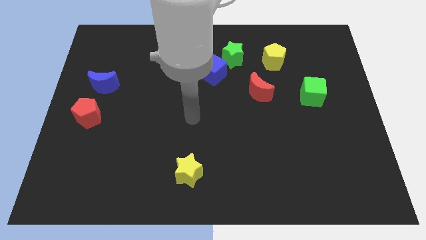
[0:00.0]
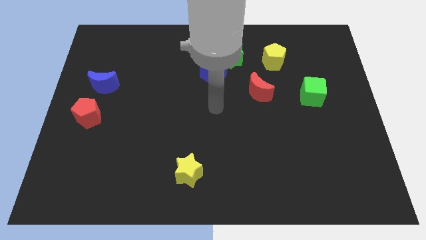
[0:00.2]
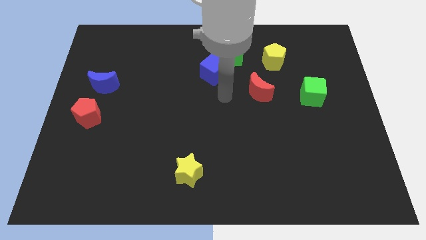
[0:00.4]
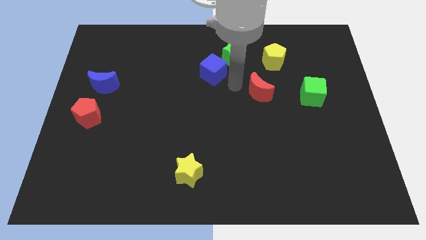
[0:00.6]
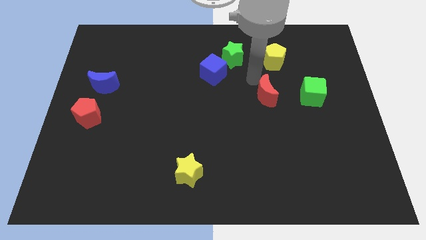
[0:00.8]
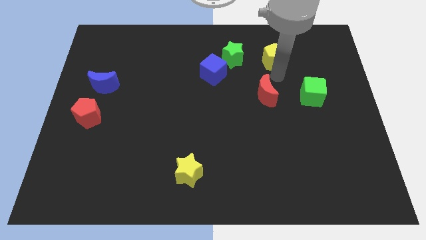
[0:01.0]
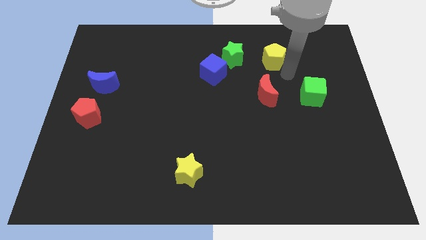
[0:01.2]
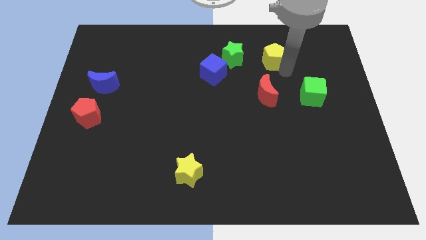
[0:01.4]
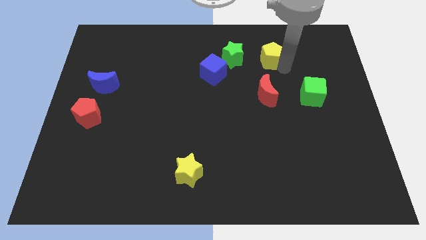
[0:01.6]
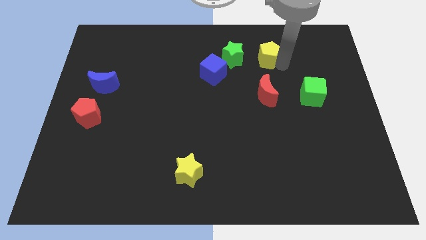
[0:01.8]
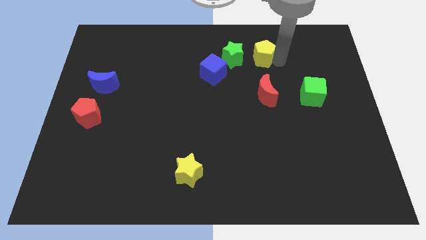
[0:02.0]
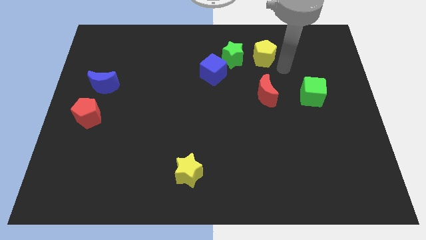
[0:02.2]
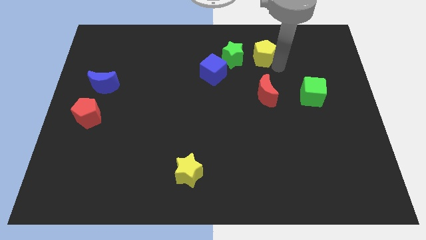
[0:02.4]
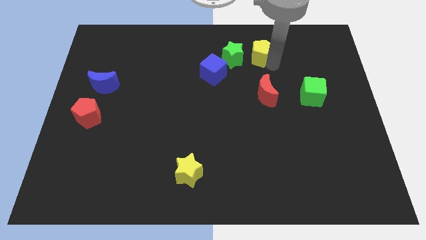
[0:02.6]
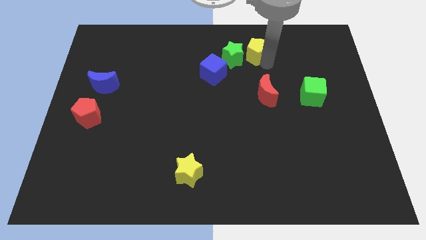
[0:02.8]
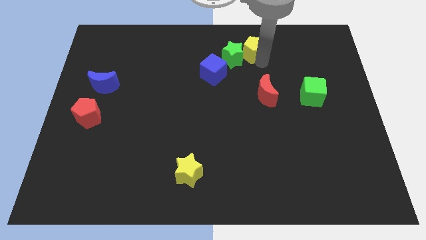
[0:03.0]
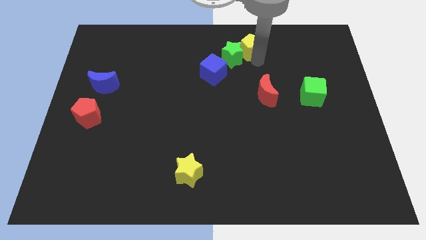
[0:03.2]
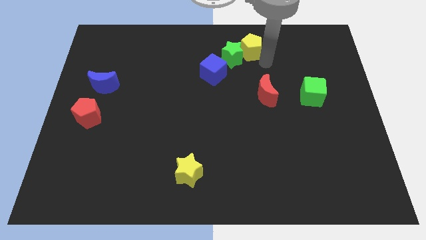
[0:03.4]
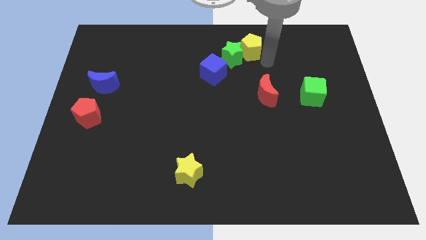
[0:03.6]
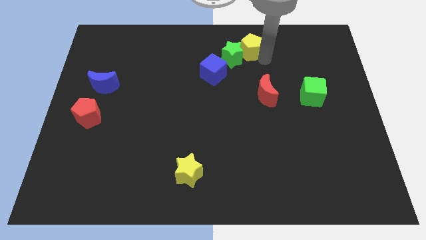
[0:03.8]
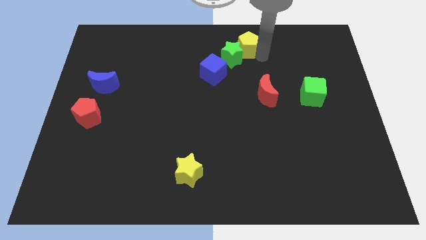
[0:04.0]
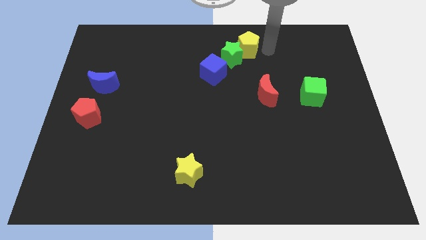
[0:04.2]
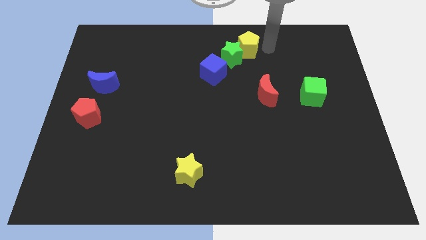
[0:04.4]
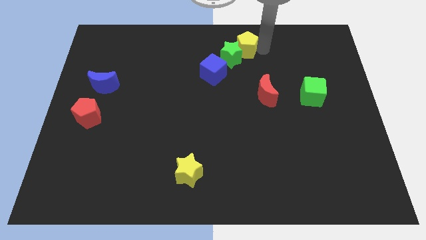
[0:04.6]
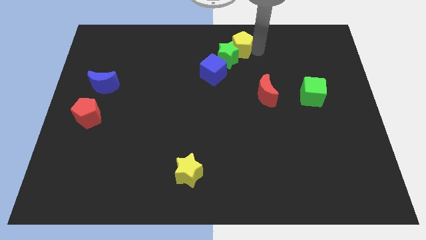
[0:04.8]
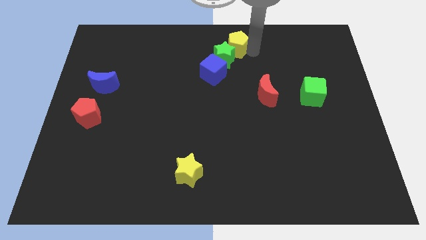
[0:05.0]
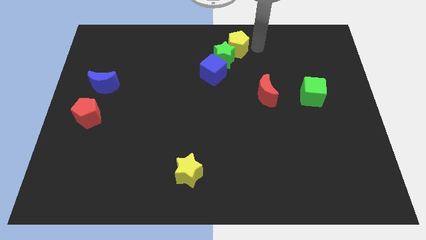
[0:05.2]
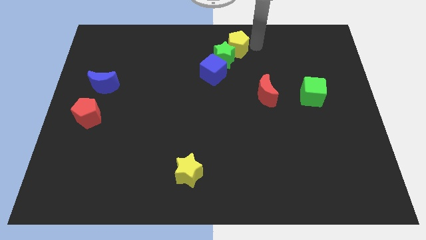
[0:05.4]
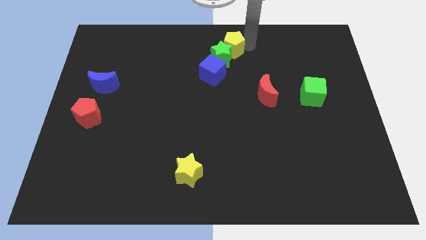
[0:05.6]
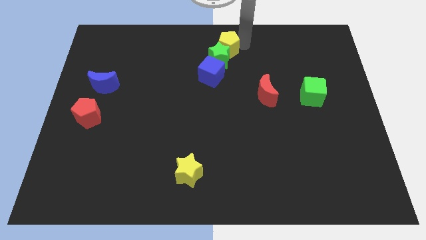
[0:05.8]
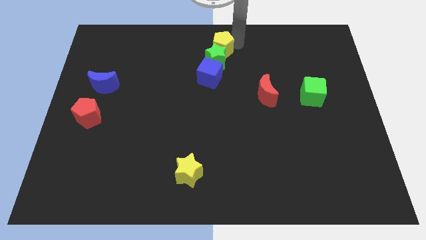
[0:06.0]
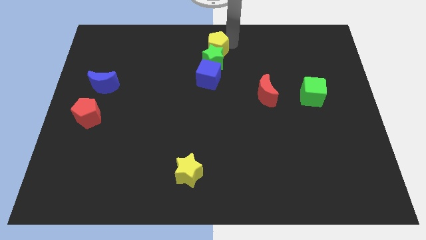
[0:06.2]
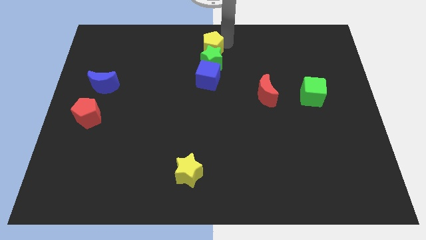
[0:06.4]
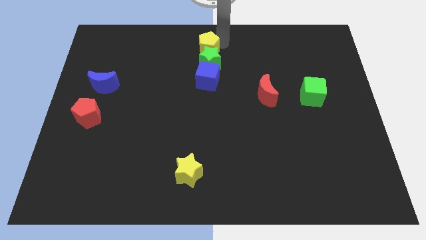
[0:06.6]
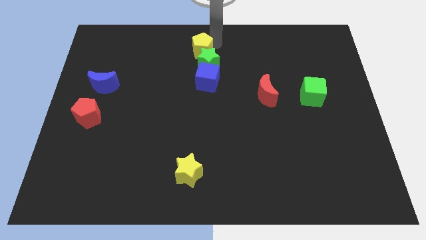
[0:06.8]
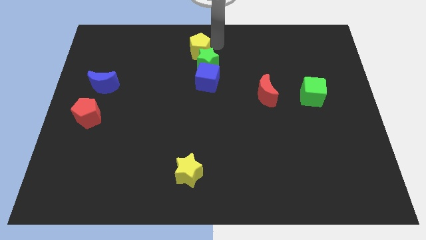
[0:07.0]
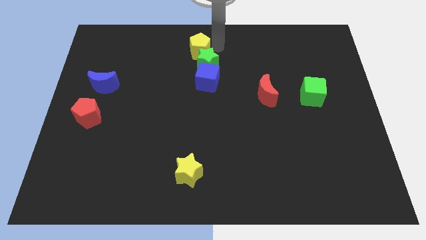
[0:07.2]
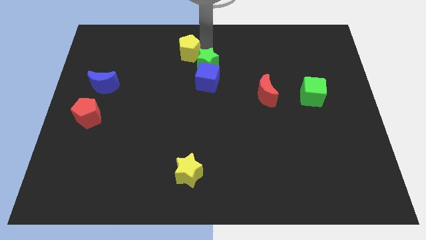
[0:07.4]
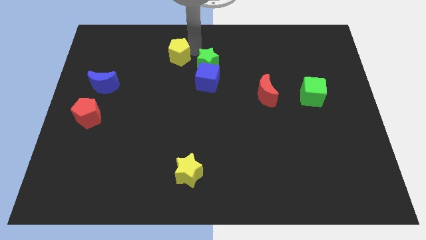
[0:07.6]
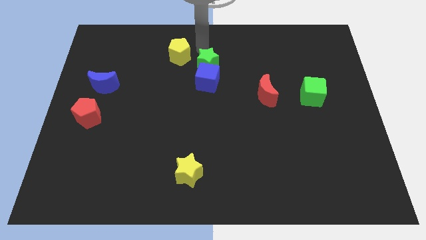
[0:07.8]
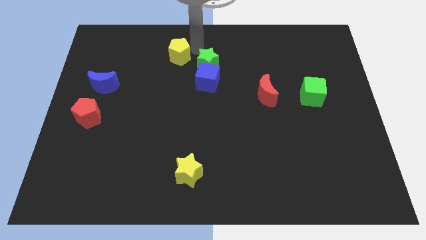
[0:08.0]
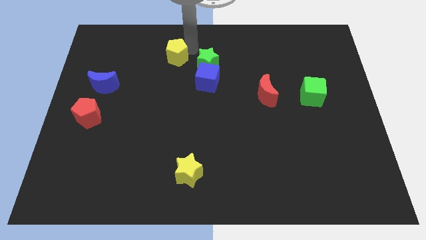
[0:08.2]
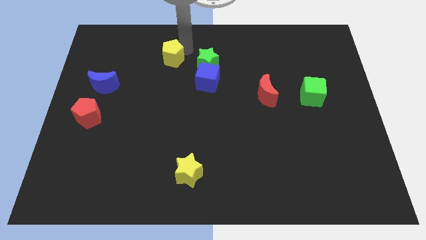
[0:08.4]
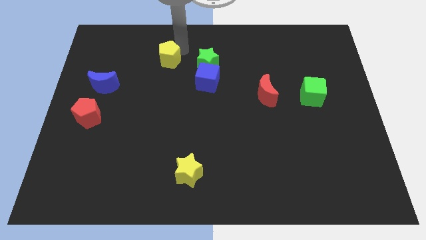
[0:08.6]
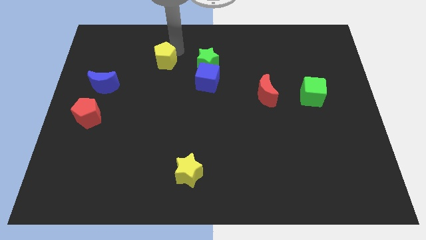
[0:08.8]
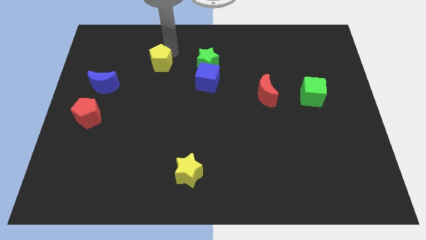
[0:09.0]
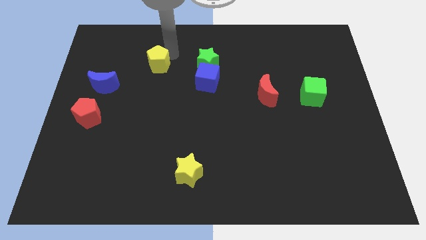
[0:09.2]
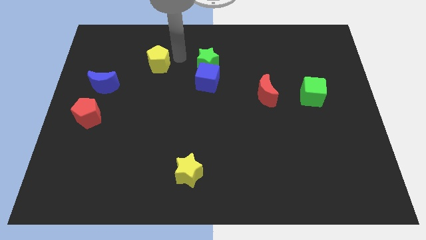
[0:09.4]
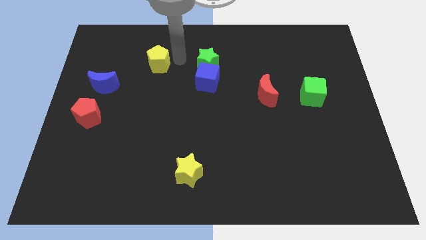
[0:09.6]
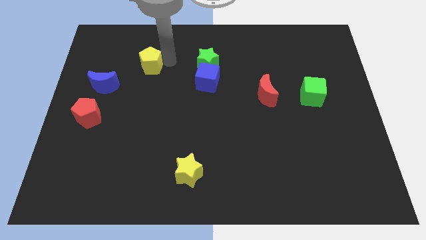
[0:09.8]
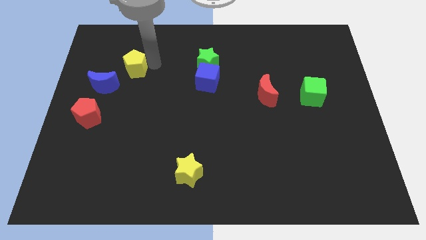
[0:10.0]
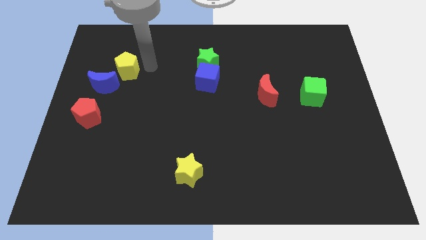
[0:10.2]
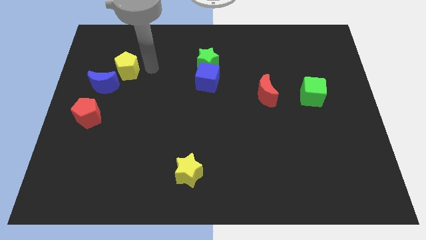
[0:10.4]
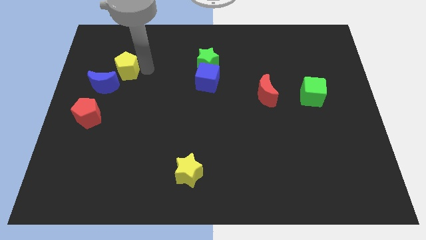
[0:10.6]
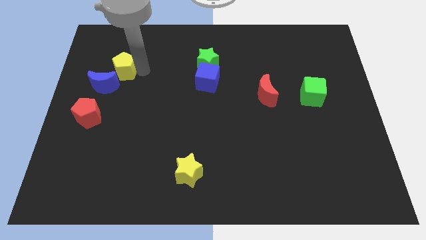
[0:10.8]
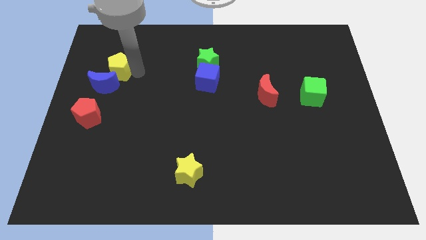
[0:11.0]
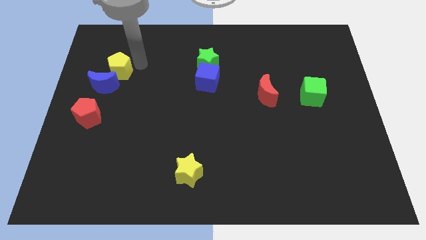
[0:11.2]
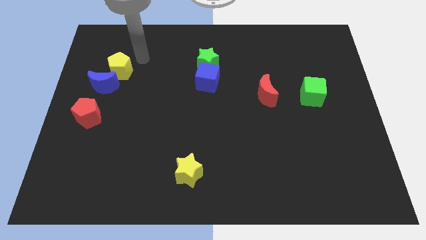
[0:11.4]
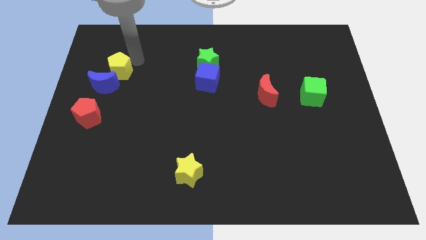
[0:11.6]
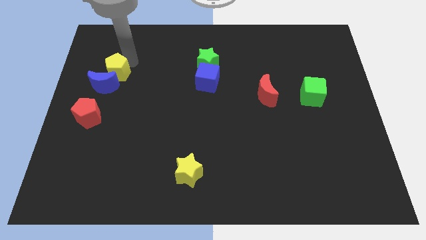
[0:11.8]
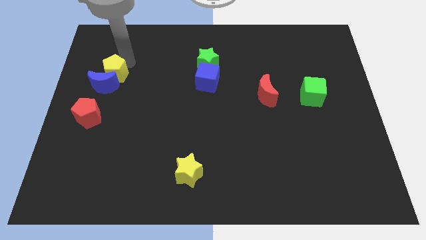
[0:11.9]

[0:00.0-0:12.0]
slide the yellow pentagon to the top of the red pentagon

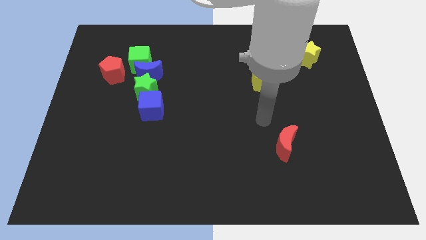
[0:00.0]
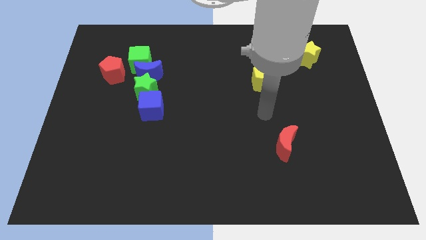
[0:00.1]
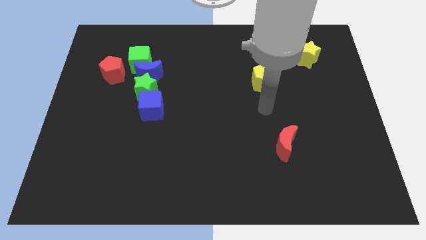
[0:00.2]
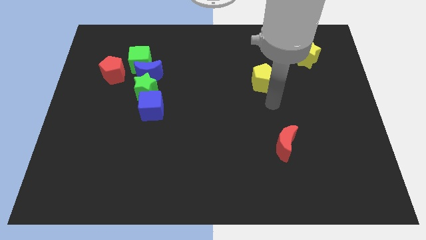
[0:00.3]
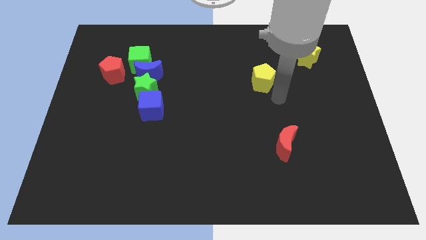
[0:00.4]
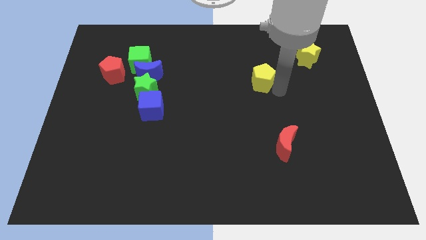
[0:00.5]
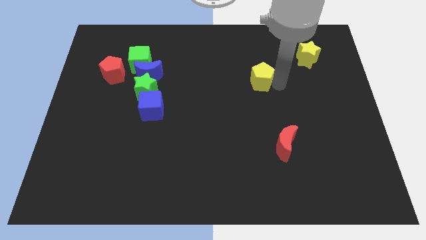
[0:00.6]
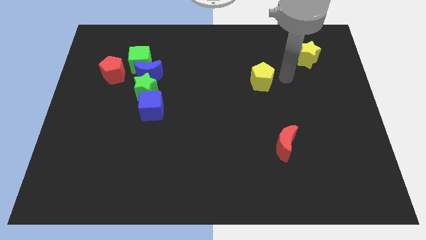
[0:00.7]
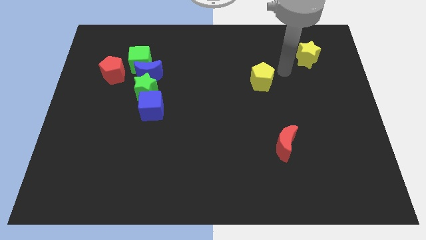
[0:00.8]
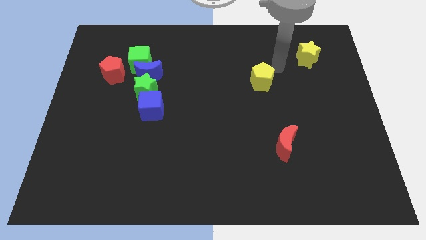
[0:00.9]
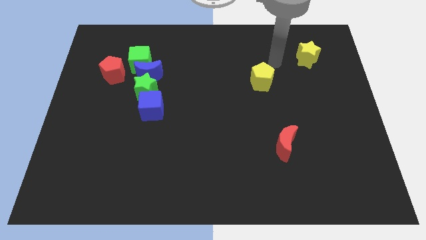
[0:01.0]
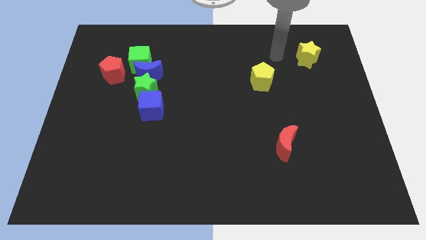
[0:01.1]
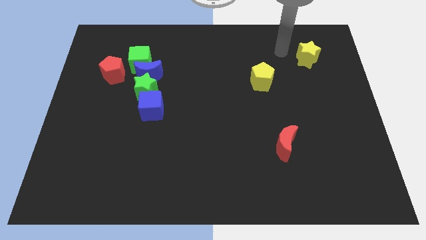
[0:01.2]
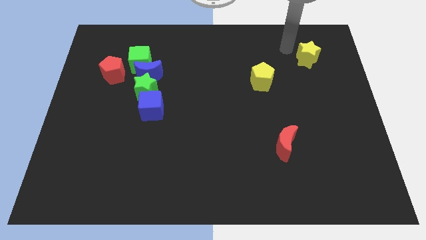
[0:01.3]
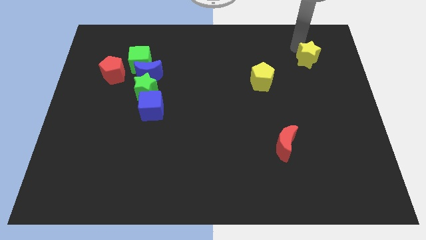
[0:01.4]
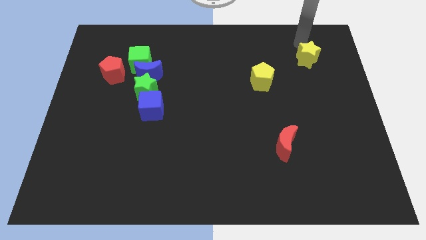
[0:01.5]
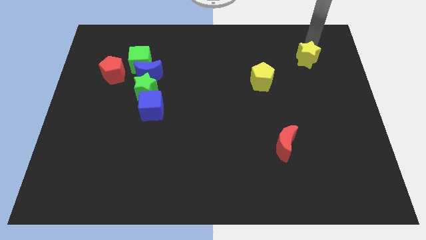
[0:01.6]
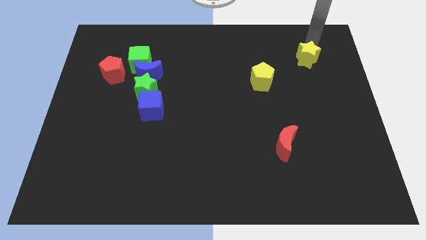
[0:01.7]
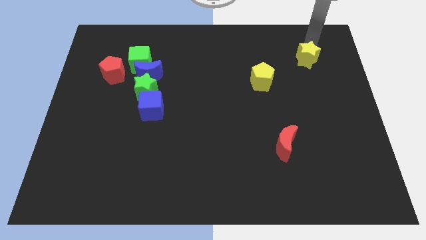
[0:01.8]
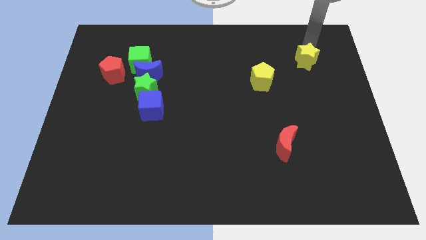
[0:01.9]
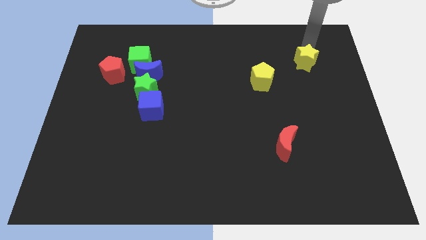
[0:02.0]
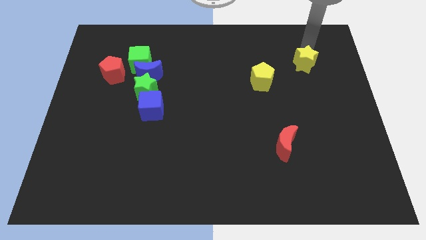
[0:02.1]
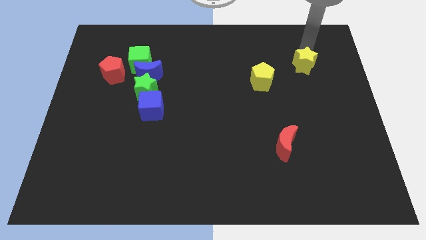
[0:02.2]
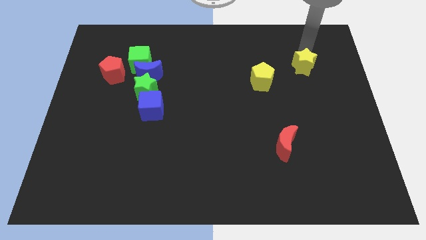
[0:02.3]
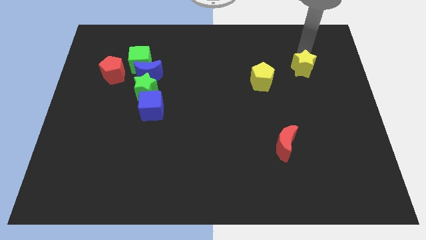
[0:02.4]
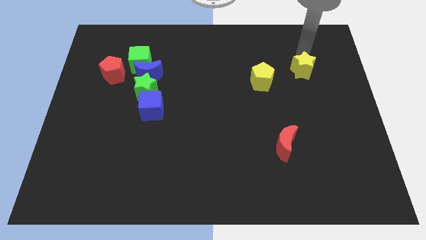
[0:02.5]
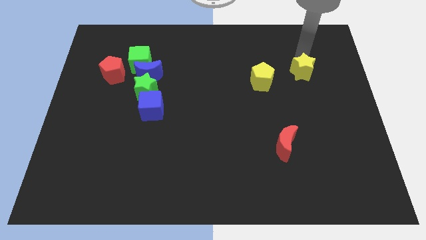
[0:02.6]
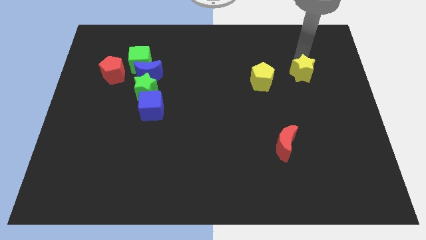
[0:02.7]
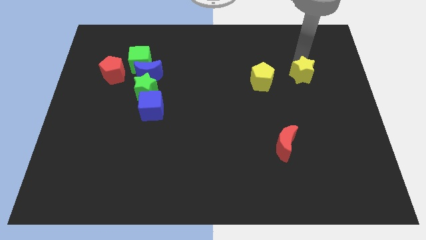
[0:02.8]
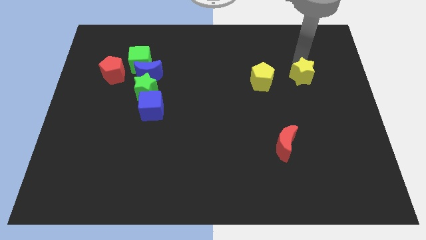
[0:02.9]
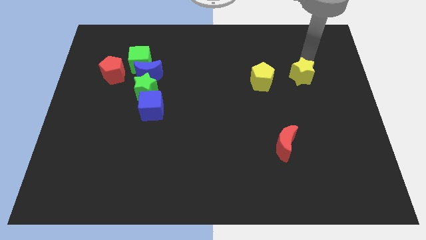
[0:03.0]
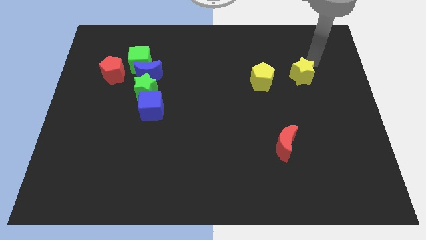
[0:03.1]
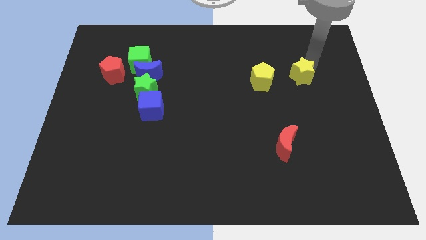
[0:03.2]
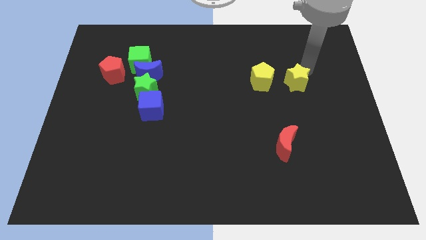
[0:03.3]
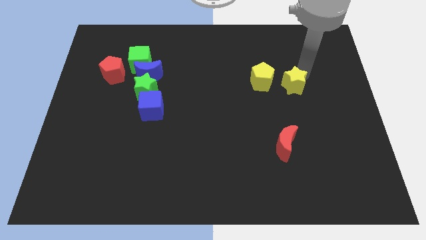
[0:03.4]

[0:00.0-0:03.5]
push the yellow star diagonally down and to the right of the yellow pentagon
